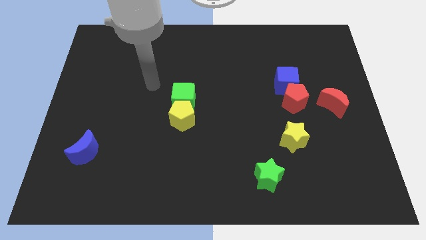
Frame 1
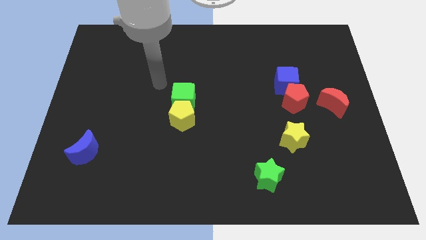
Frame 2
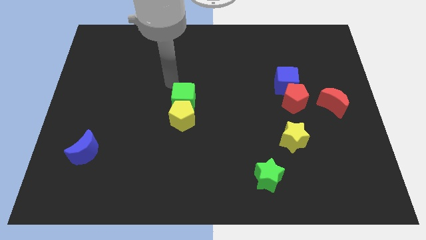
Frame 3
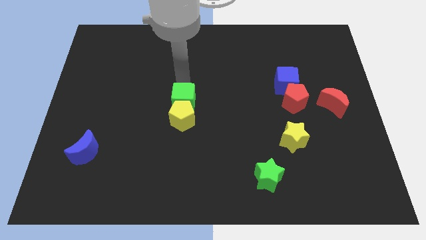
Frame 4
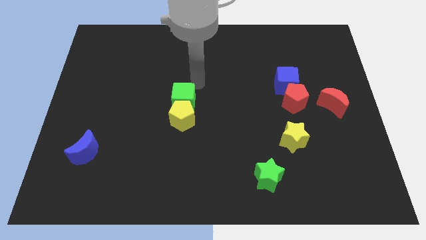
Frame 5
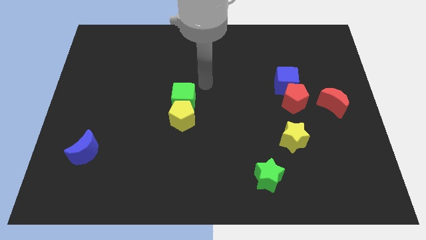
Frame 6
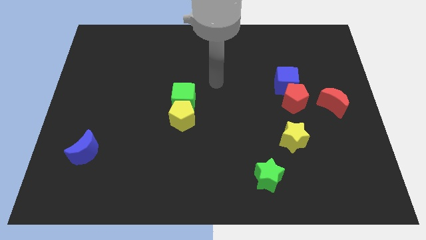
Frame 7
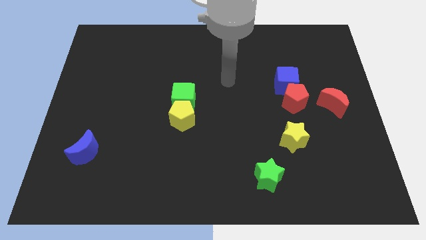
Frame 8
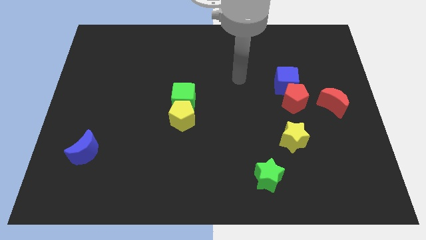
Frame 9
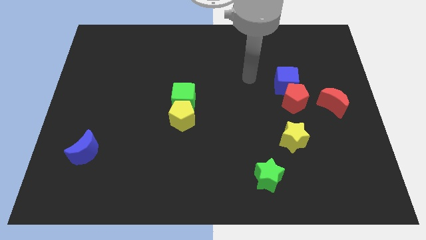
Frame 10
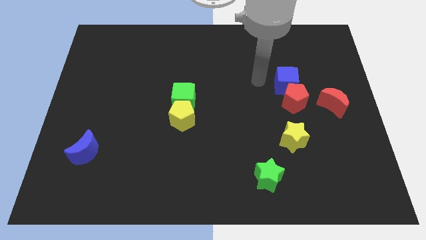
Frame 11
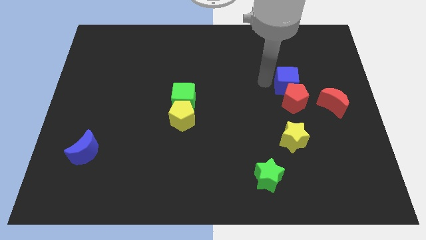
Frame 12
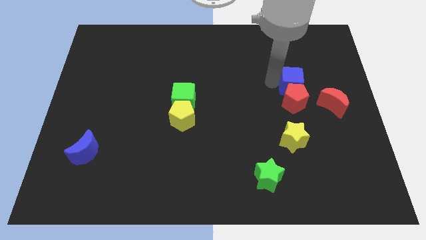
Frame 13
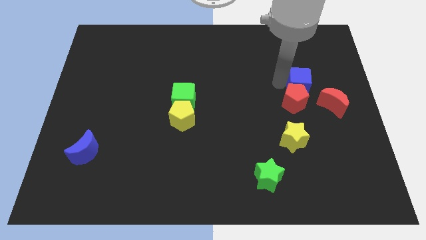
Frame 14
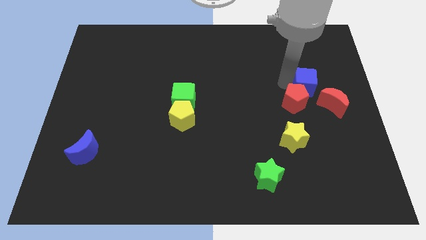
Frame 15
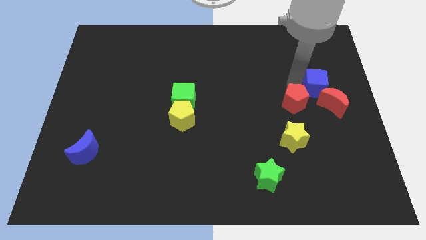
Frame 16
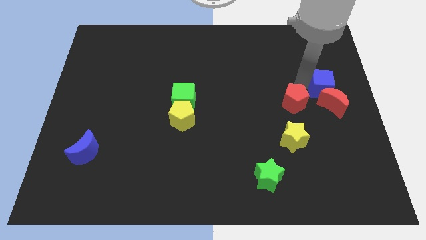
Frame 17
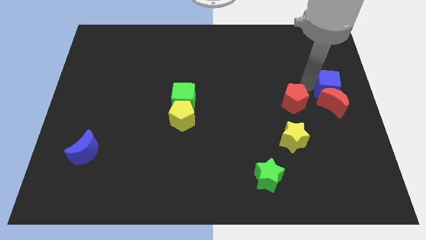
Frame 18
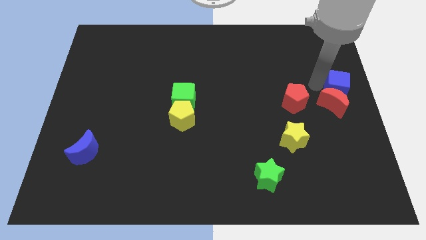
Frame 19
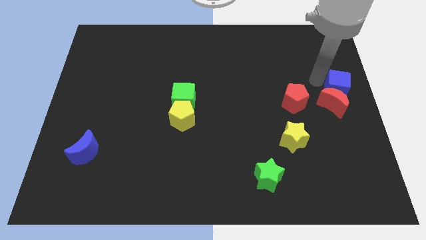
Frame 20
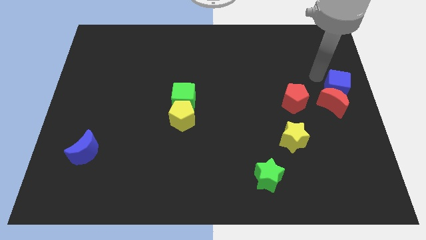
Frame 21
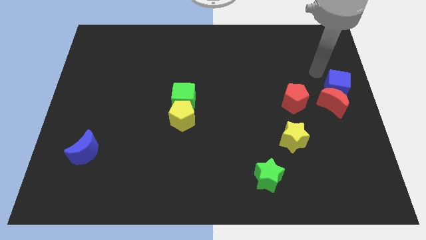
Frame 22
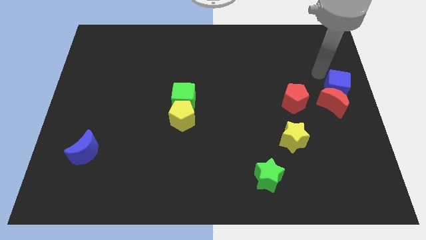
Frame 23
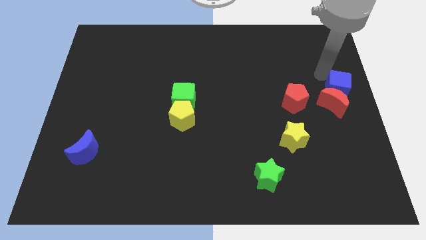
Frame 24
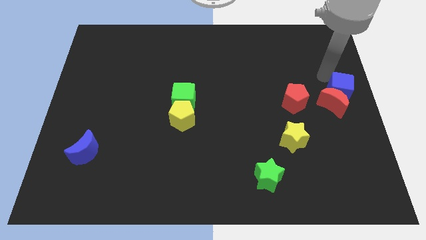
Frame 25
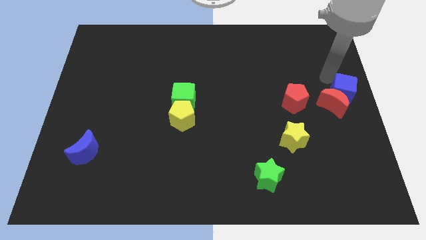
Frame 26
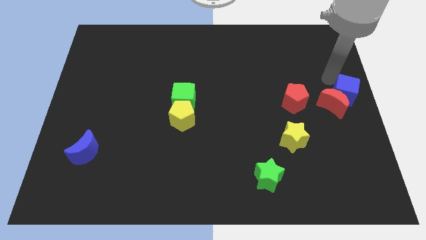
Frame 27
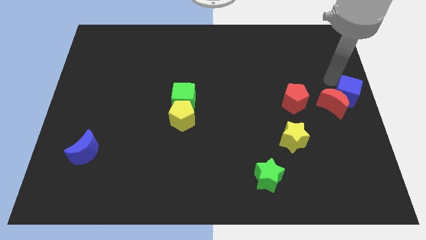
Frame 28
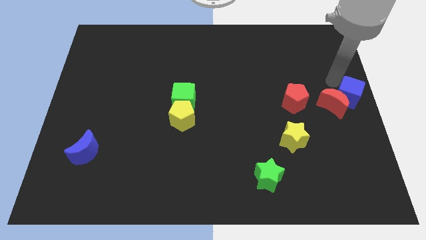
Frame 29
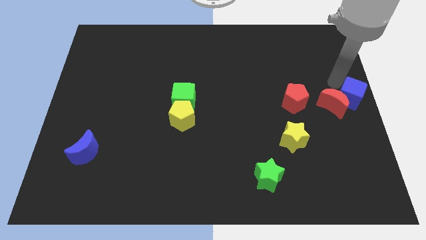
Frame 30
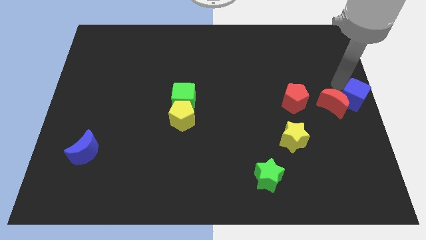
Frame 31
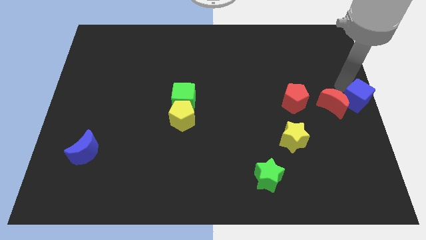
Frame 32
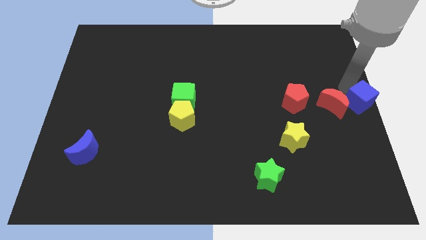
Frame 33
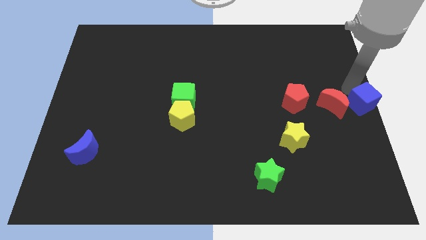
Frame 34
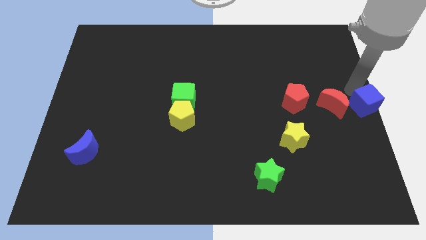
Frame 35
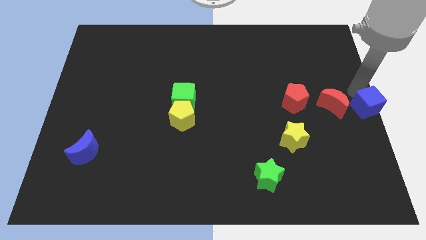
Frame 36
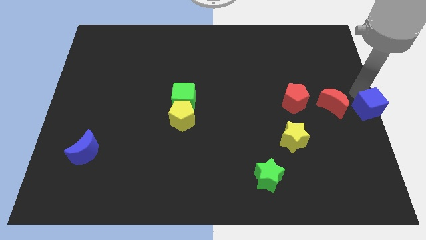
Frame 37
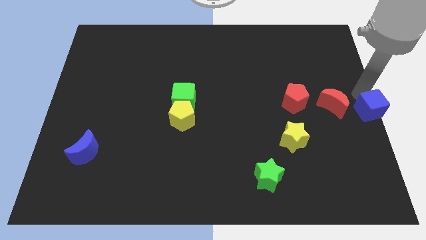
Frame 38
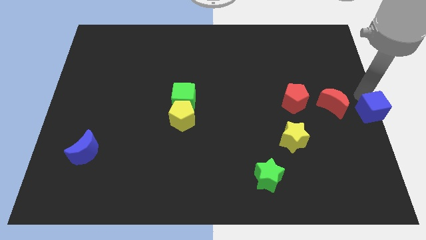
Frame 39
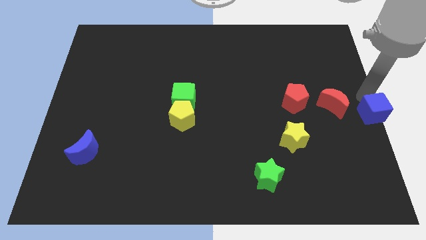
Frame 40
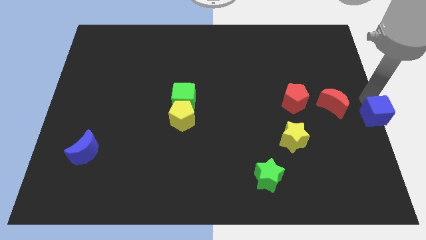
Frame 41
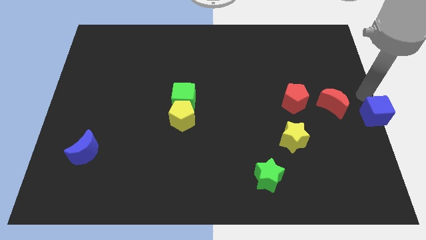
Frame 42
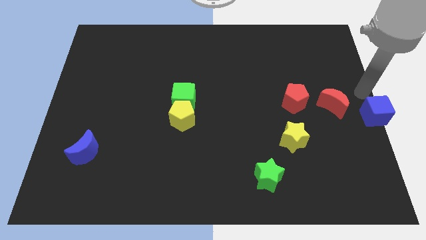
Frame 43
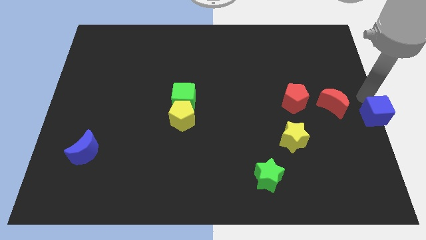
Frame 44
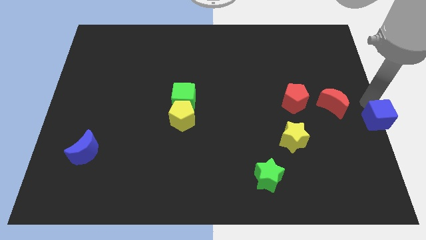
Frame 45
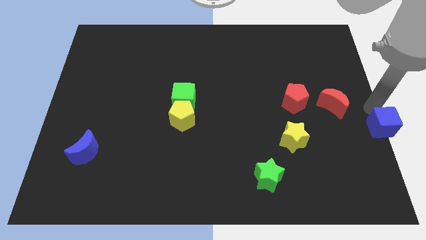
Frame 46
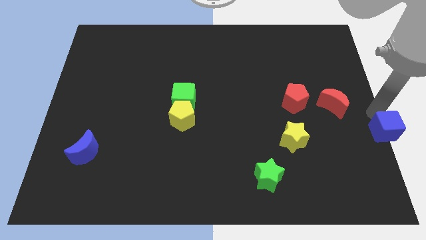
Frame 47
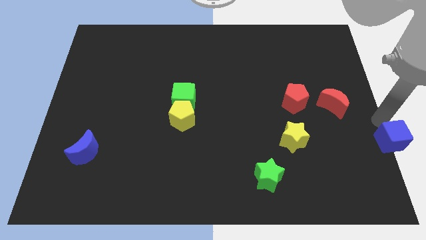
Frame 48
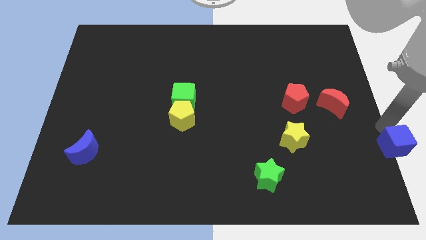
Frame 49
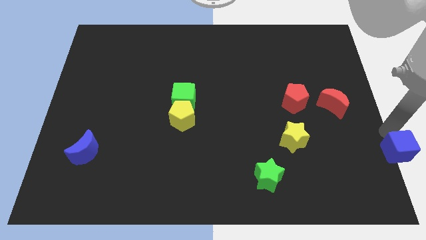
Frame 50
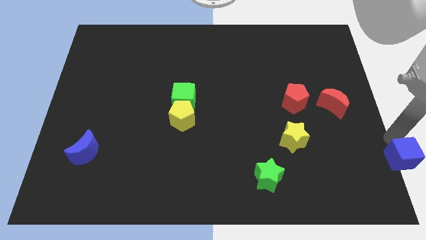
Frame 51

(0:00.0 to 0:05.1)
push the blue cube to the bottom right

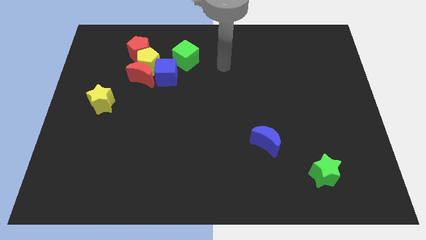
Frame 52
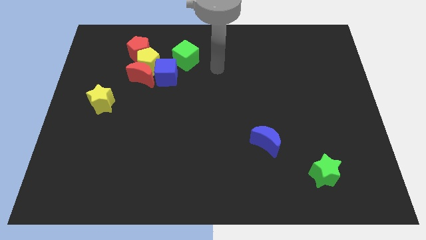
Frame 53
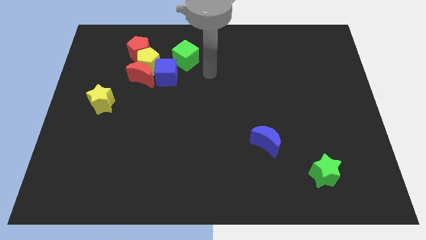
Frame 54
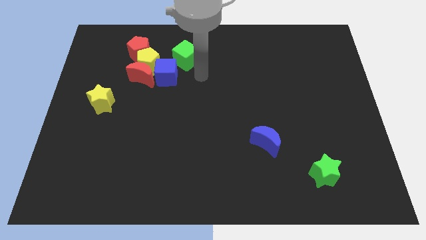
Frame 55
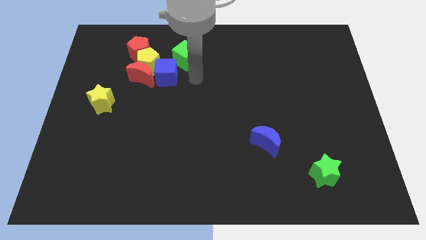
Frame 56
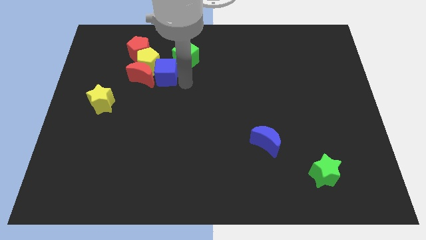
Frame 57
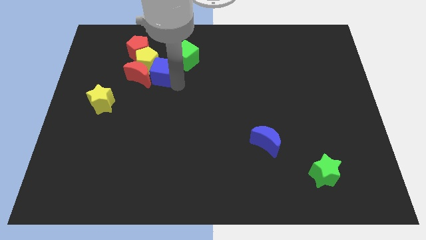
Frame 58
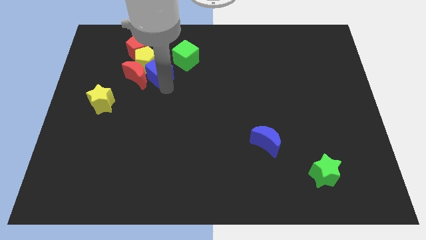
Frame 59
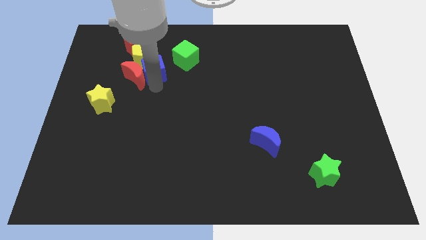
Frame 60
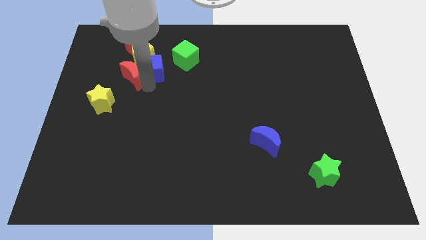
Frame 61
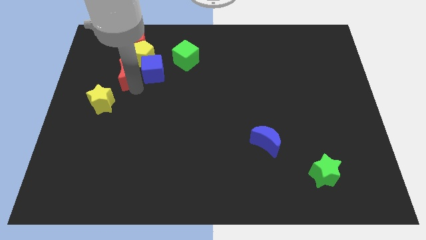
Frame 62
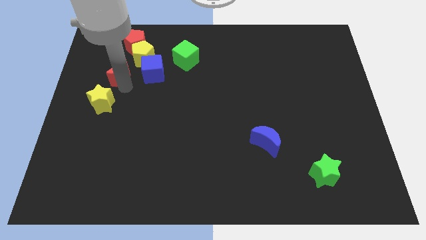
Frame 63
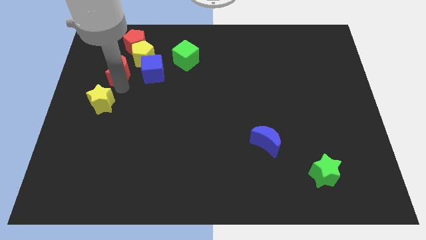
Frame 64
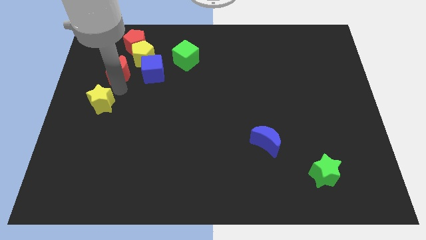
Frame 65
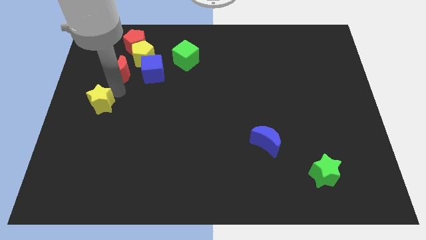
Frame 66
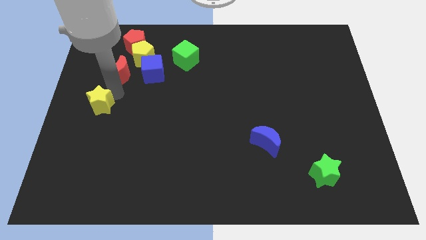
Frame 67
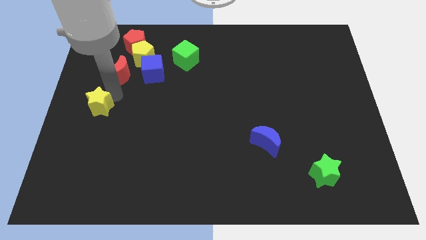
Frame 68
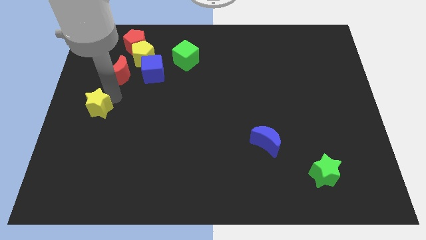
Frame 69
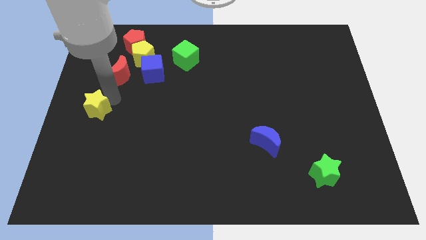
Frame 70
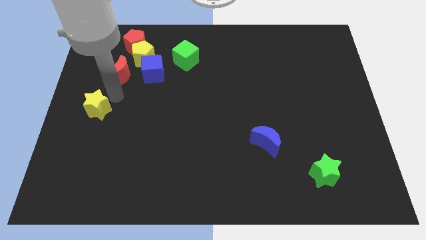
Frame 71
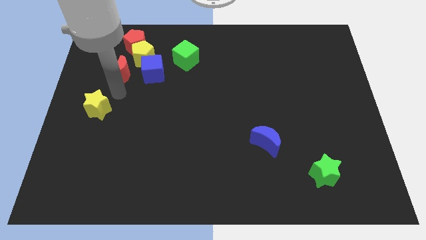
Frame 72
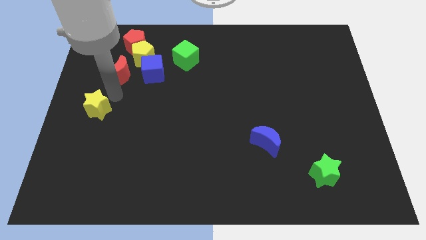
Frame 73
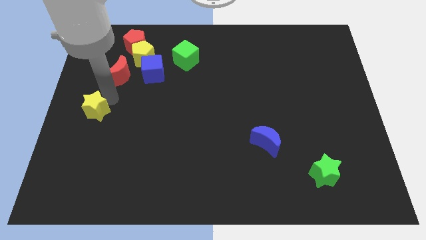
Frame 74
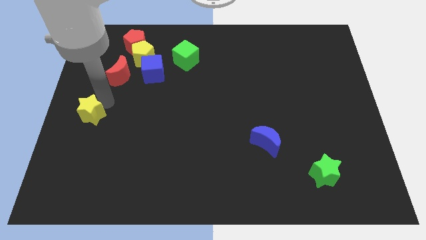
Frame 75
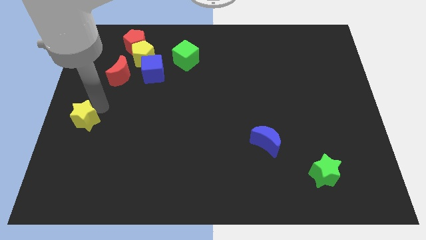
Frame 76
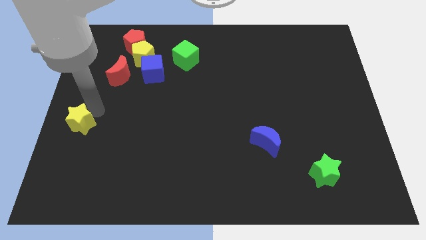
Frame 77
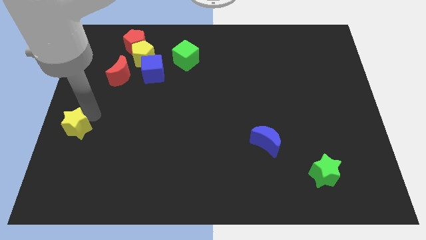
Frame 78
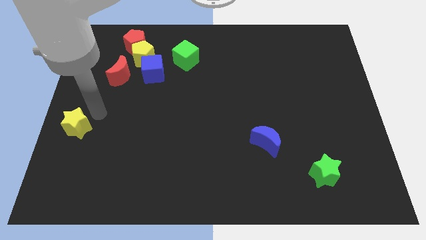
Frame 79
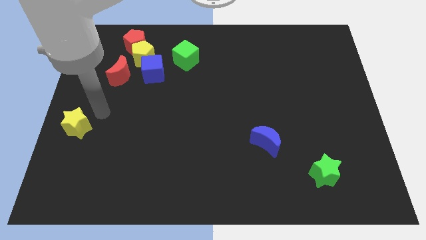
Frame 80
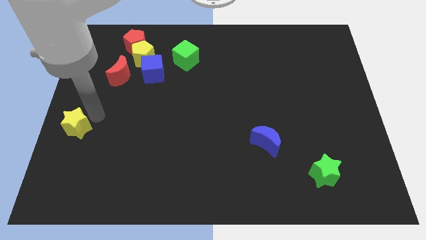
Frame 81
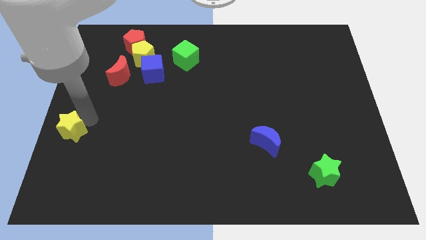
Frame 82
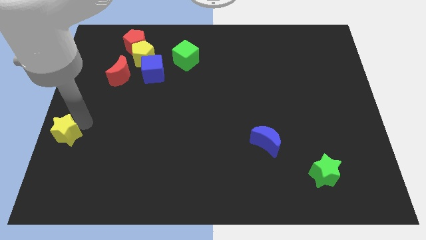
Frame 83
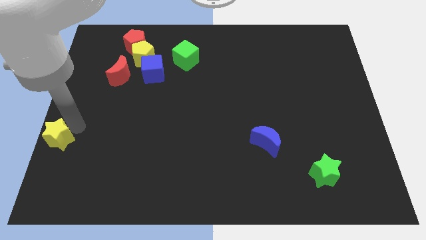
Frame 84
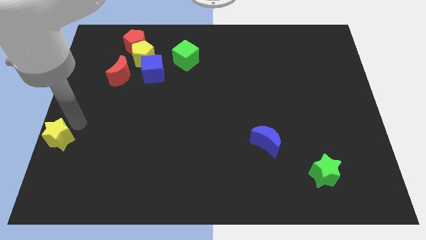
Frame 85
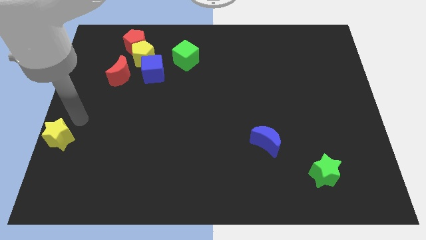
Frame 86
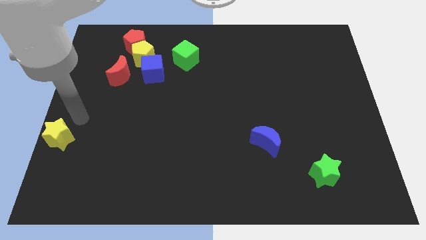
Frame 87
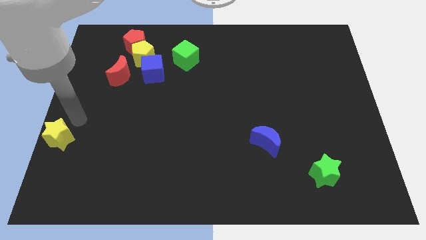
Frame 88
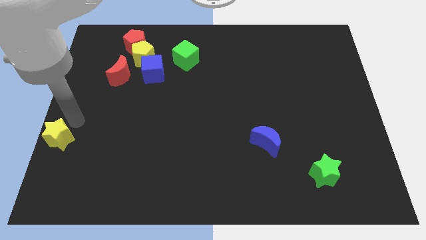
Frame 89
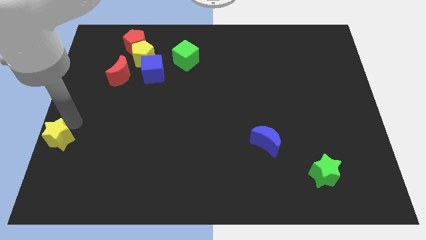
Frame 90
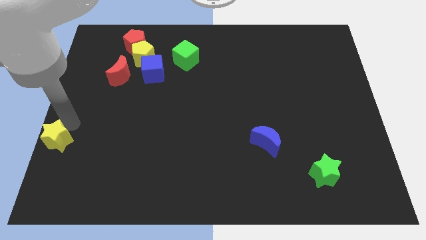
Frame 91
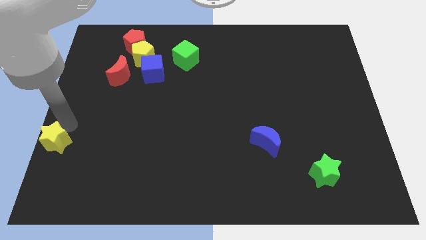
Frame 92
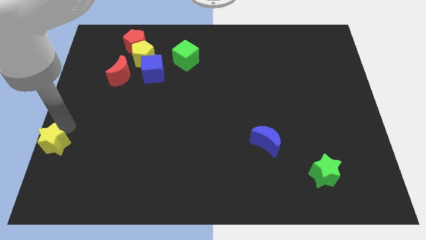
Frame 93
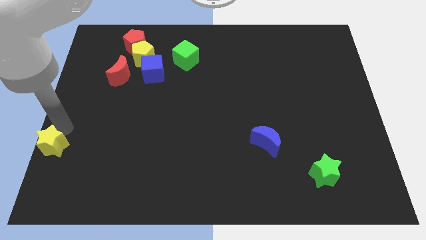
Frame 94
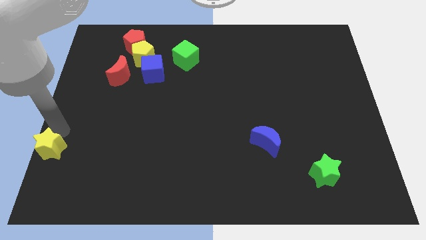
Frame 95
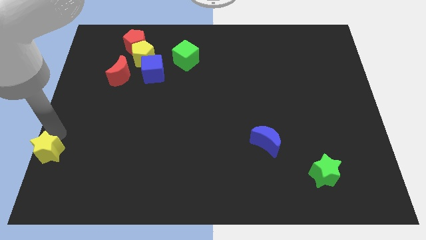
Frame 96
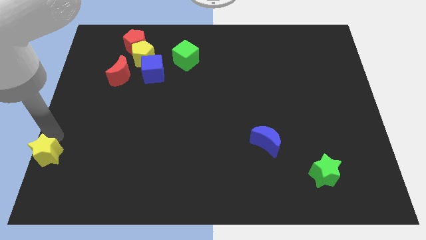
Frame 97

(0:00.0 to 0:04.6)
put the yellow star to the bottom left corner
